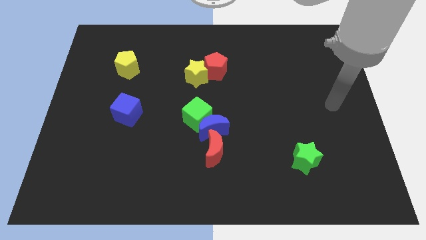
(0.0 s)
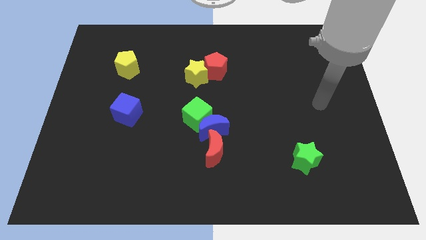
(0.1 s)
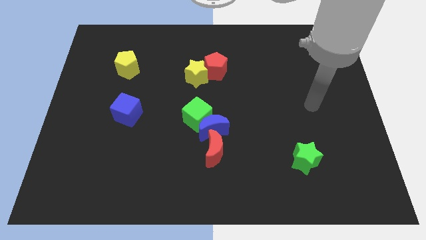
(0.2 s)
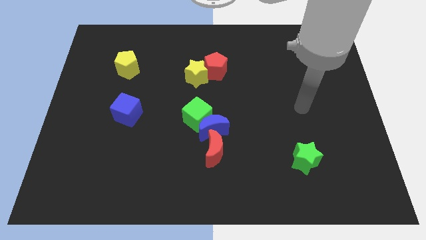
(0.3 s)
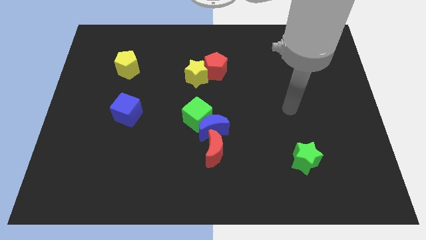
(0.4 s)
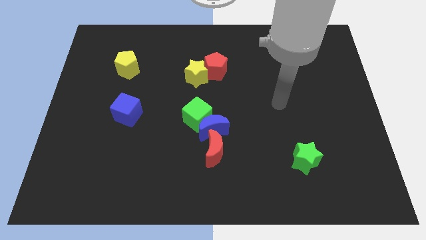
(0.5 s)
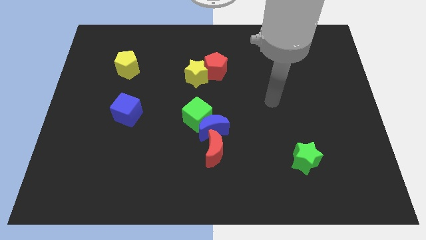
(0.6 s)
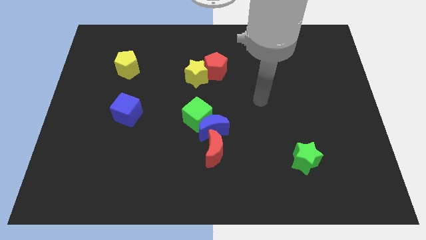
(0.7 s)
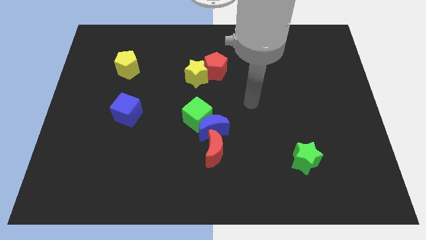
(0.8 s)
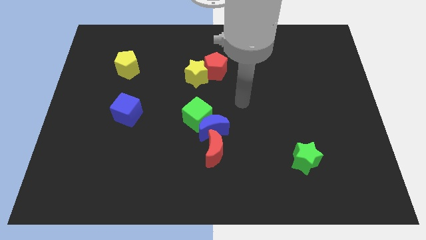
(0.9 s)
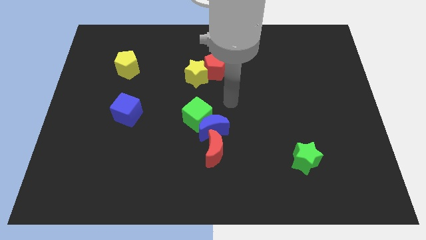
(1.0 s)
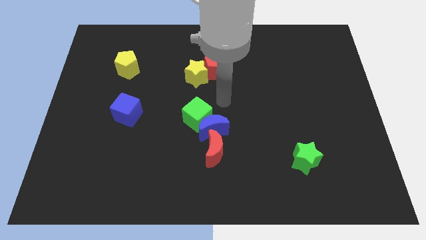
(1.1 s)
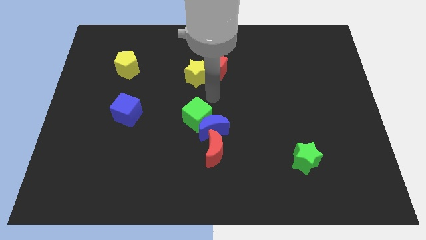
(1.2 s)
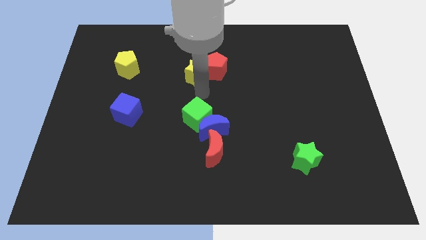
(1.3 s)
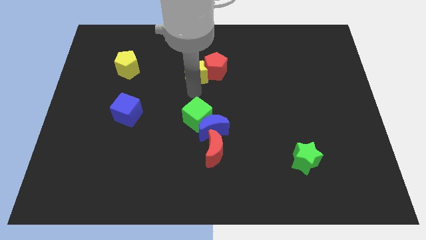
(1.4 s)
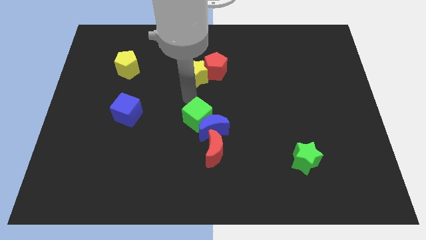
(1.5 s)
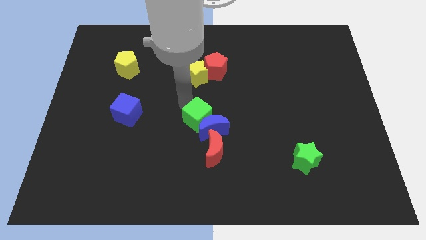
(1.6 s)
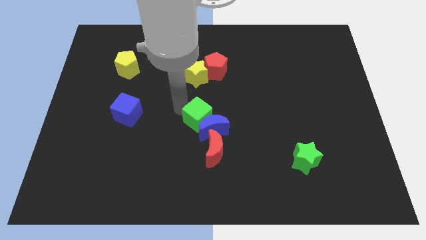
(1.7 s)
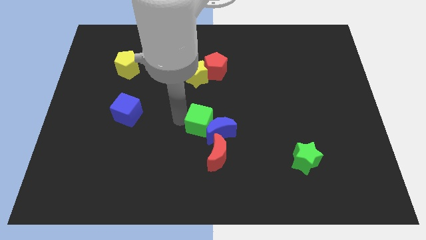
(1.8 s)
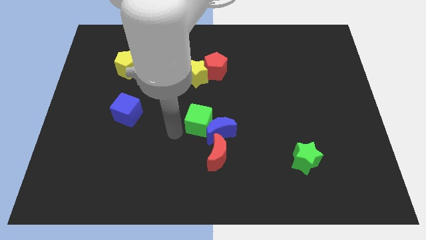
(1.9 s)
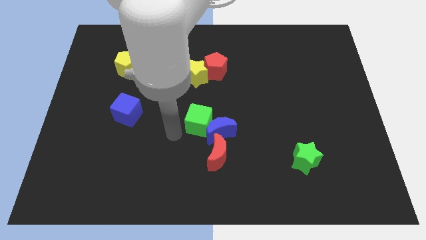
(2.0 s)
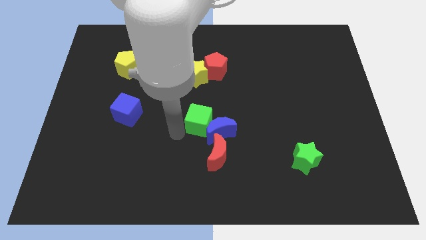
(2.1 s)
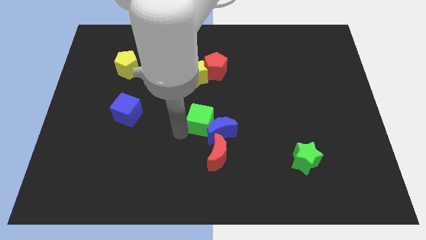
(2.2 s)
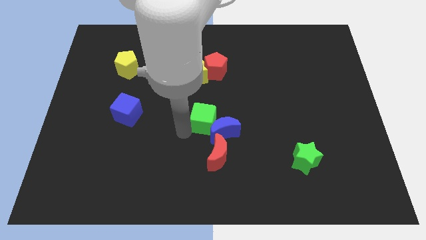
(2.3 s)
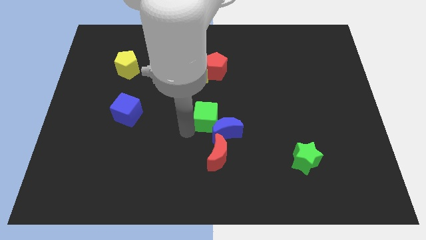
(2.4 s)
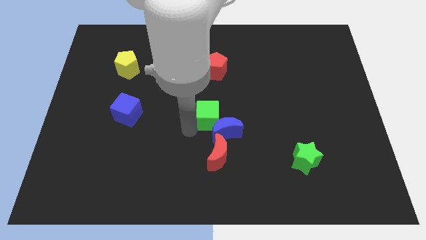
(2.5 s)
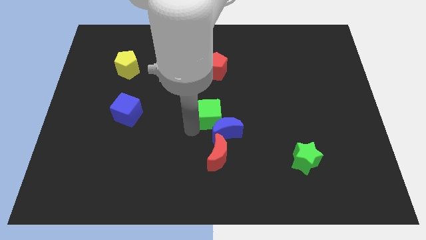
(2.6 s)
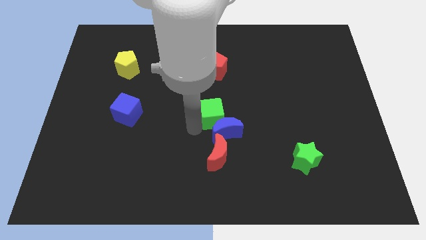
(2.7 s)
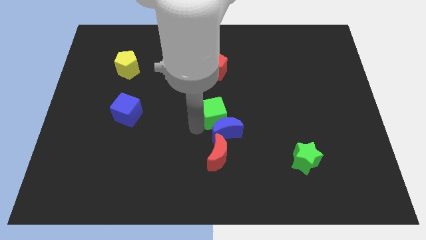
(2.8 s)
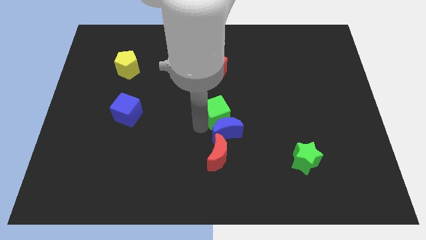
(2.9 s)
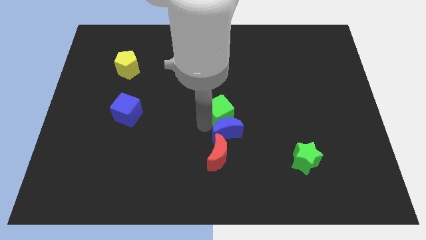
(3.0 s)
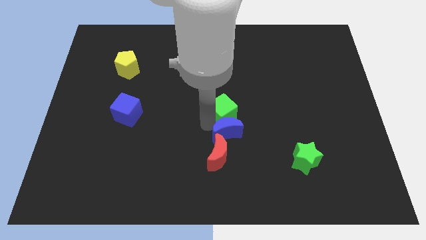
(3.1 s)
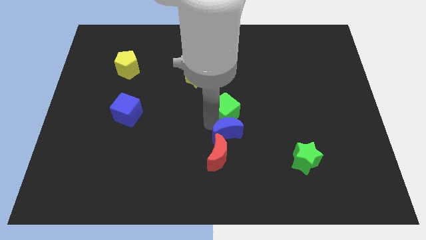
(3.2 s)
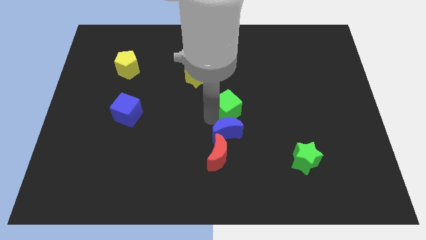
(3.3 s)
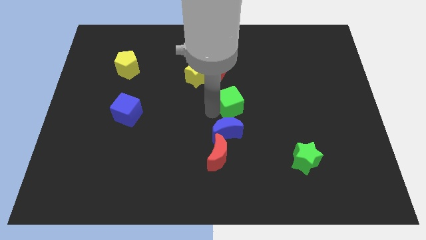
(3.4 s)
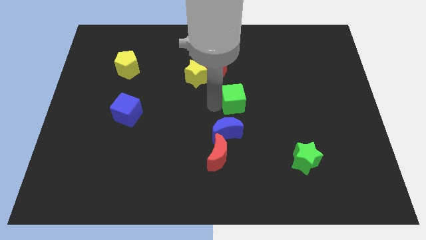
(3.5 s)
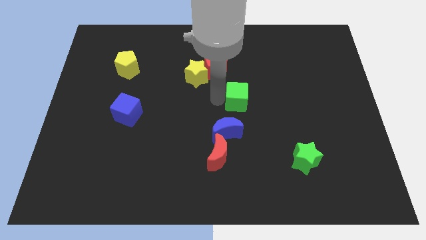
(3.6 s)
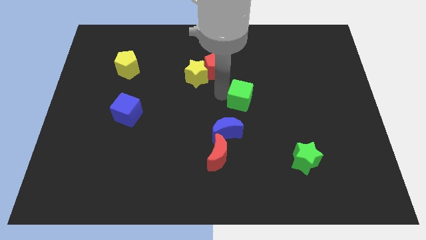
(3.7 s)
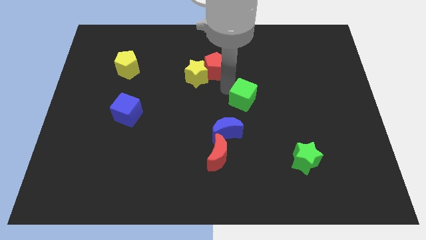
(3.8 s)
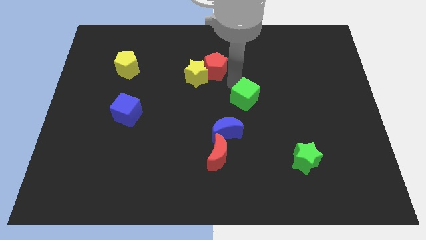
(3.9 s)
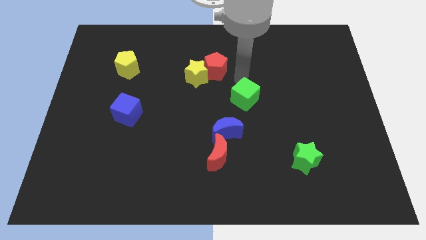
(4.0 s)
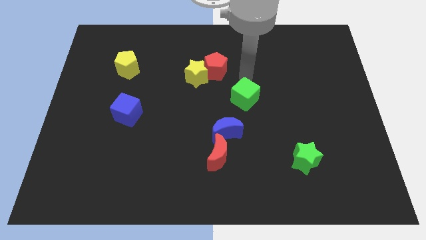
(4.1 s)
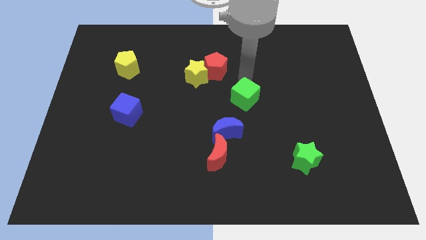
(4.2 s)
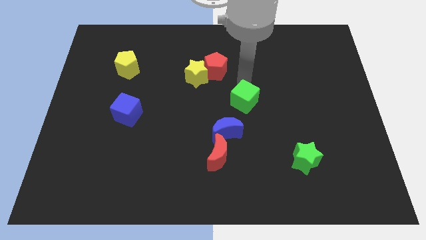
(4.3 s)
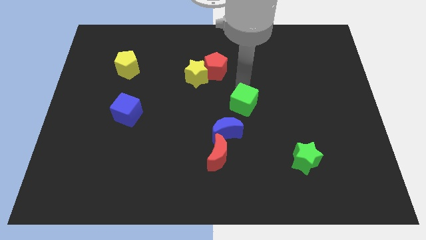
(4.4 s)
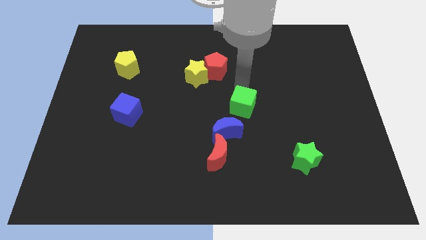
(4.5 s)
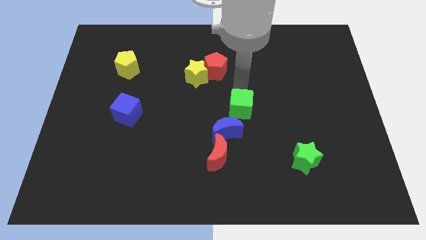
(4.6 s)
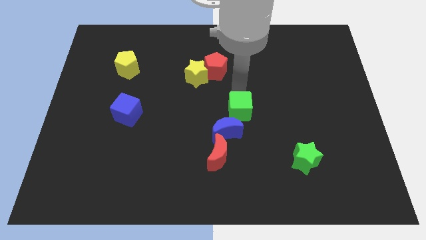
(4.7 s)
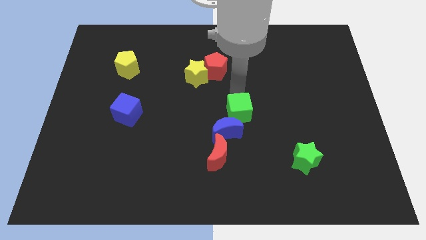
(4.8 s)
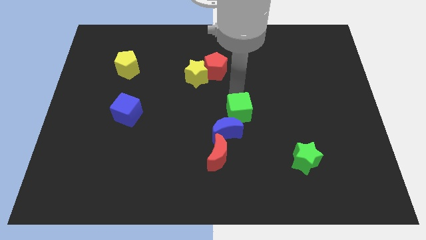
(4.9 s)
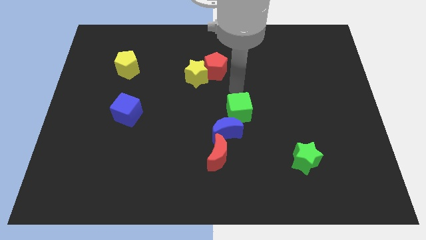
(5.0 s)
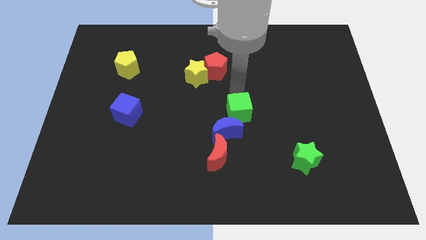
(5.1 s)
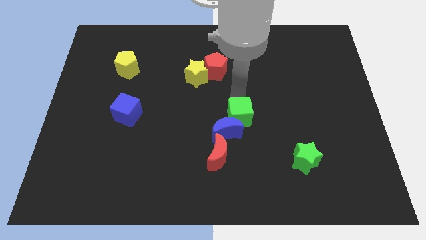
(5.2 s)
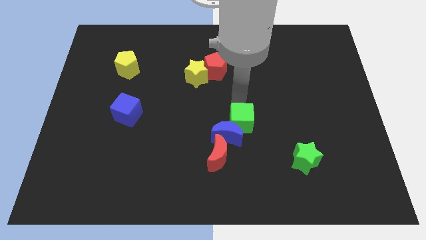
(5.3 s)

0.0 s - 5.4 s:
put the green cube to the top right side of the red moon
